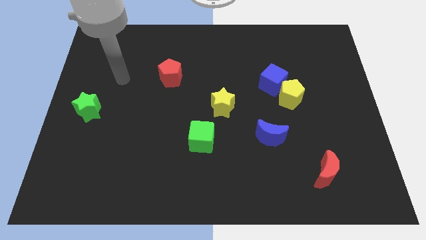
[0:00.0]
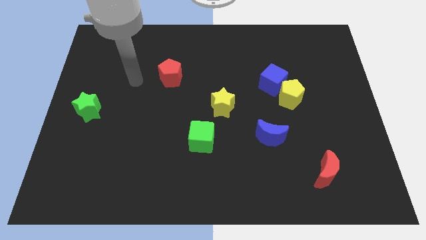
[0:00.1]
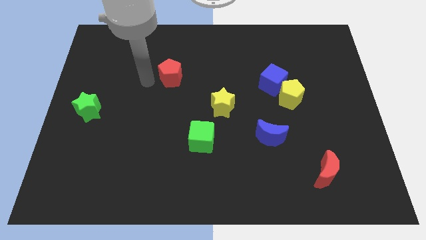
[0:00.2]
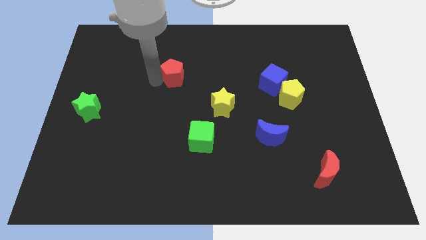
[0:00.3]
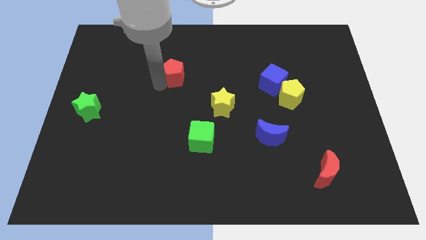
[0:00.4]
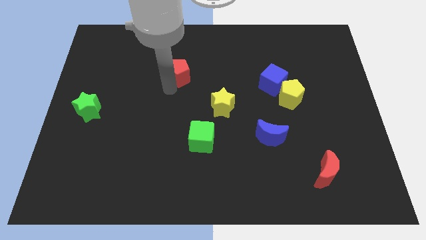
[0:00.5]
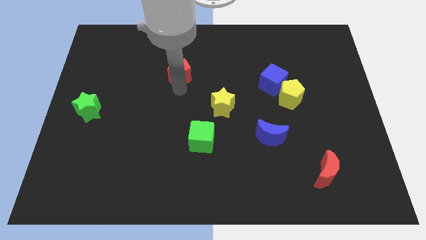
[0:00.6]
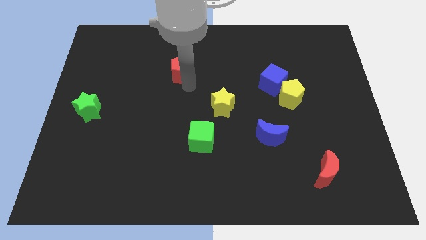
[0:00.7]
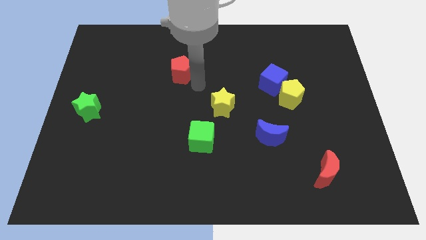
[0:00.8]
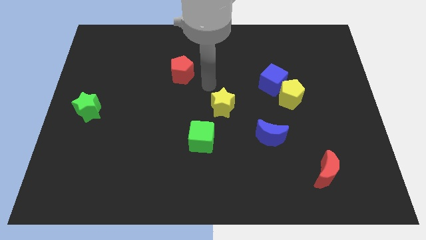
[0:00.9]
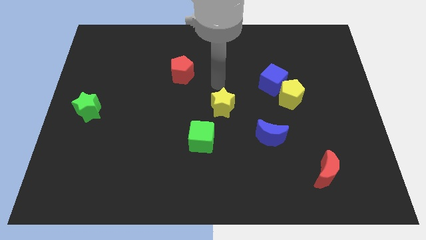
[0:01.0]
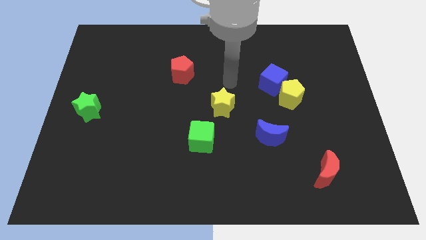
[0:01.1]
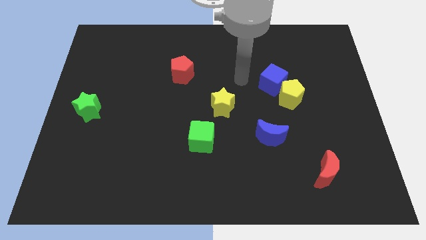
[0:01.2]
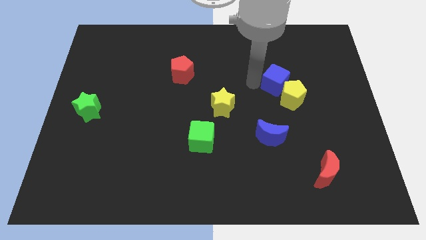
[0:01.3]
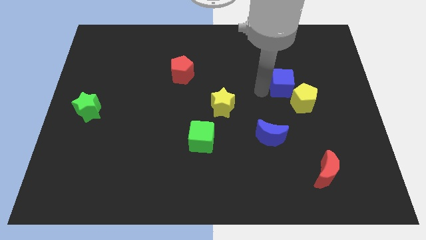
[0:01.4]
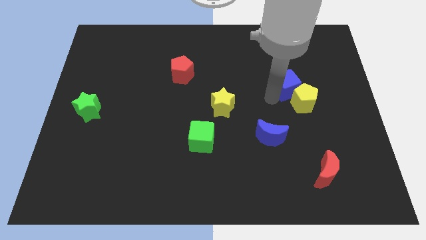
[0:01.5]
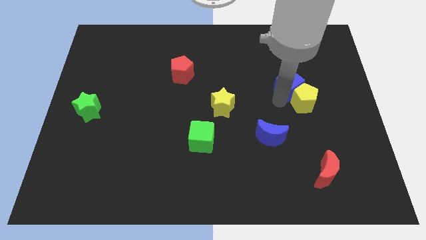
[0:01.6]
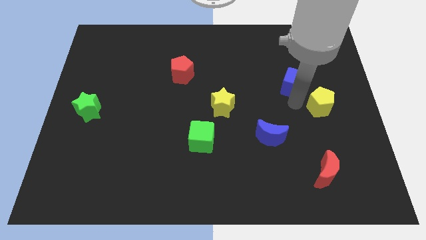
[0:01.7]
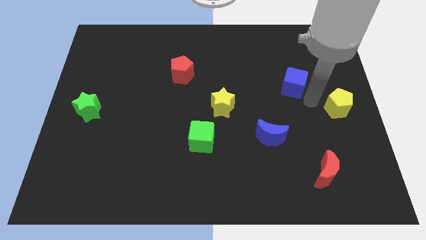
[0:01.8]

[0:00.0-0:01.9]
move the blue cube away from the yellow pentagon

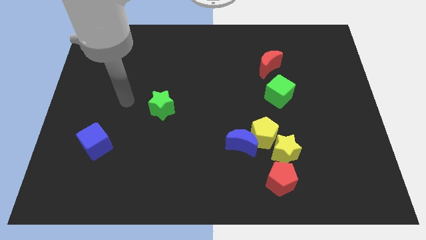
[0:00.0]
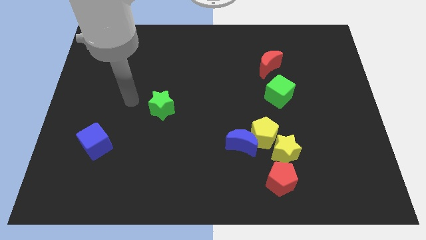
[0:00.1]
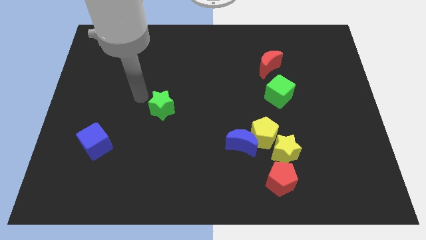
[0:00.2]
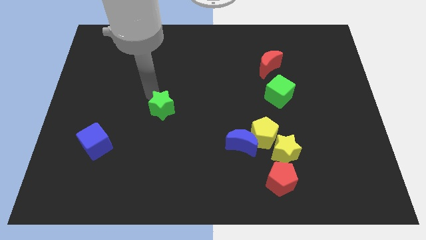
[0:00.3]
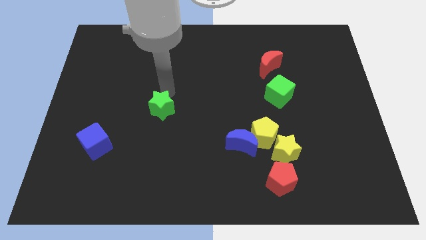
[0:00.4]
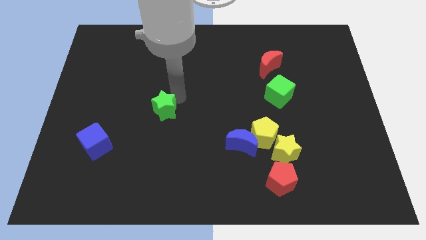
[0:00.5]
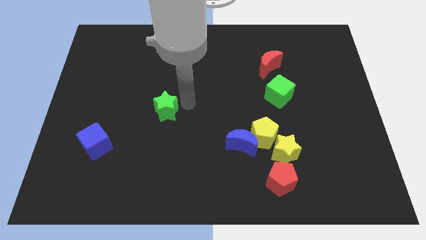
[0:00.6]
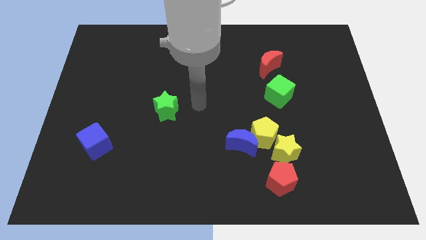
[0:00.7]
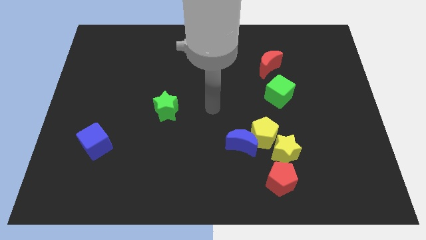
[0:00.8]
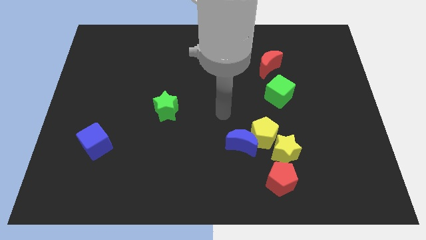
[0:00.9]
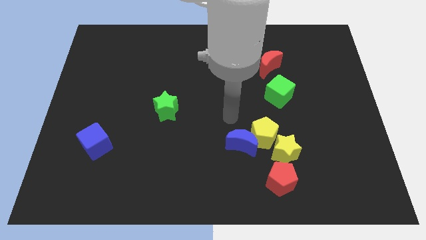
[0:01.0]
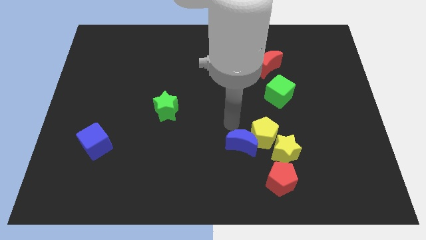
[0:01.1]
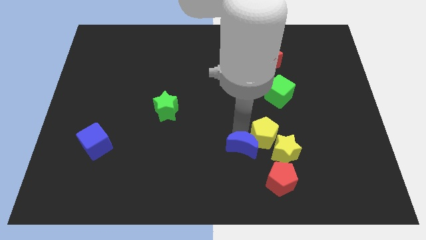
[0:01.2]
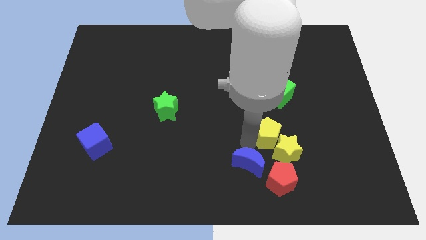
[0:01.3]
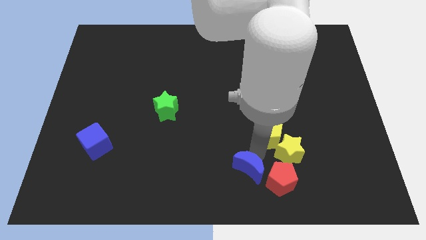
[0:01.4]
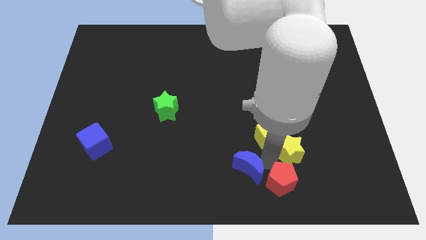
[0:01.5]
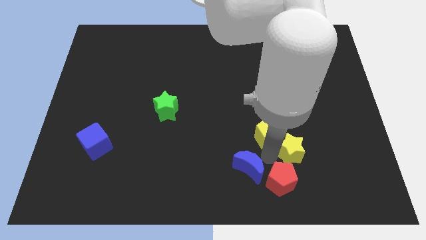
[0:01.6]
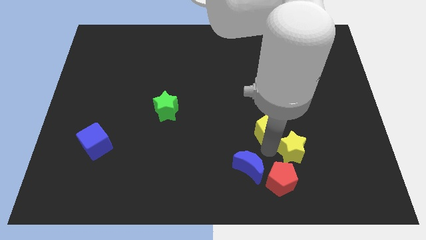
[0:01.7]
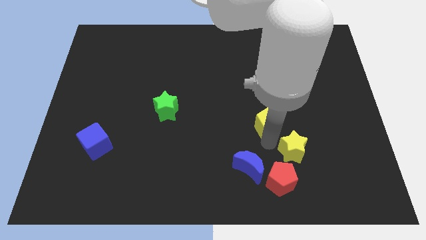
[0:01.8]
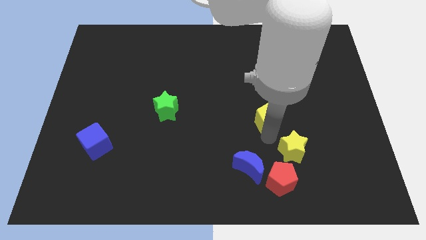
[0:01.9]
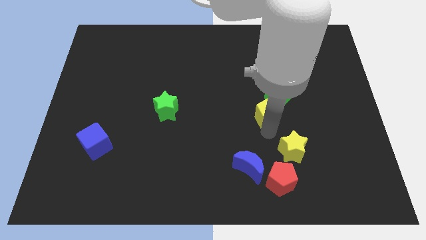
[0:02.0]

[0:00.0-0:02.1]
pull the yellow pentagon apart from the blue moon and yellow star

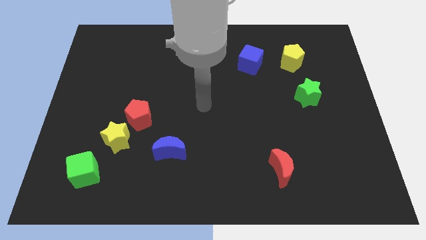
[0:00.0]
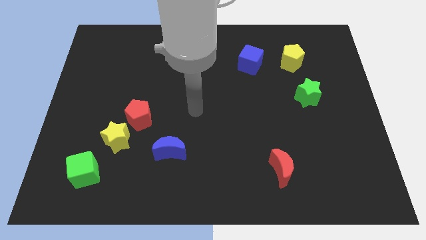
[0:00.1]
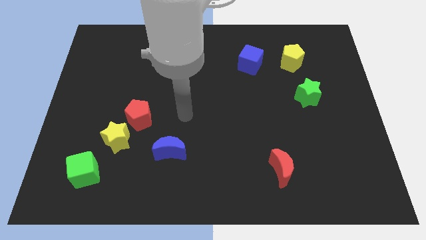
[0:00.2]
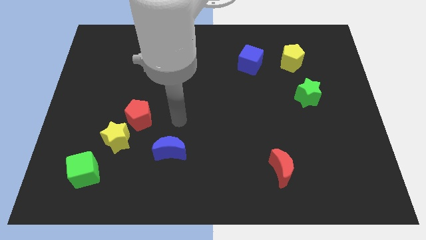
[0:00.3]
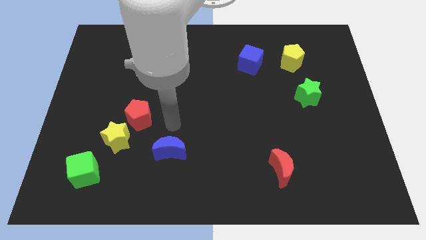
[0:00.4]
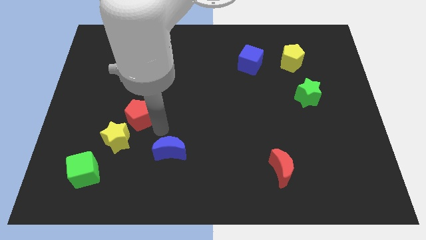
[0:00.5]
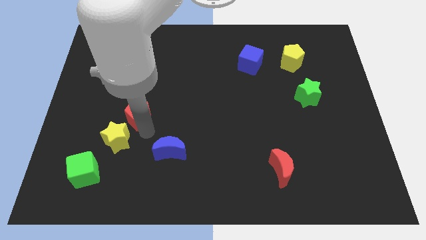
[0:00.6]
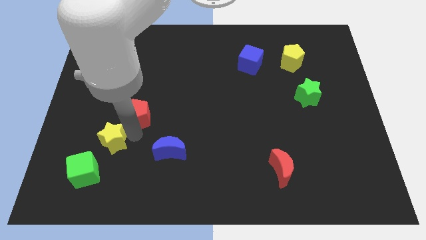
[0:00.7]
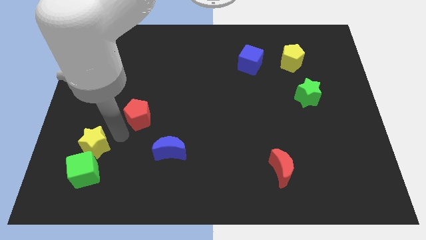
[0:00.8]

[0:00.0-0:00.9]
move the red pentagon away from the yellow star

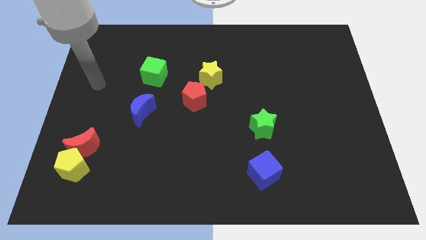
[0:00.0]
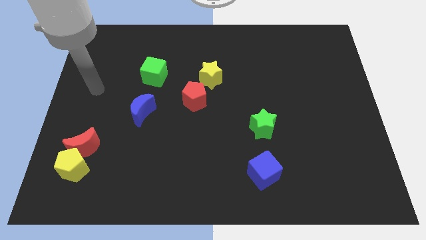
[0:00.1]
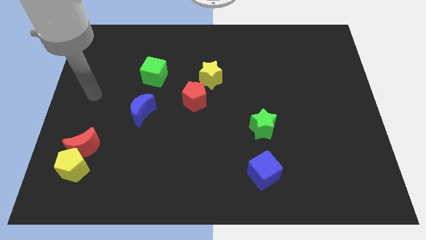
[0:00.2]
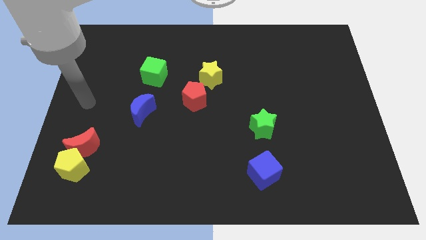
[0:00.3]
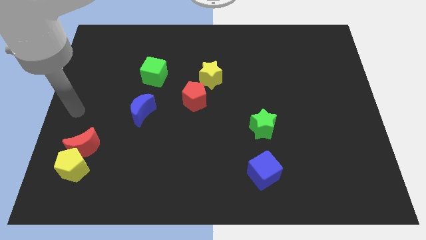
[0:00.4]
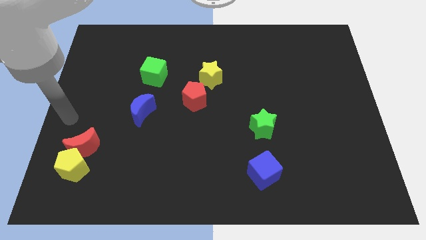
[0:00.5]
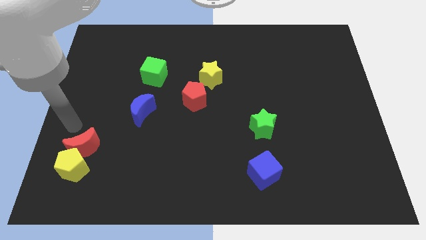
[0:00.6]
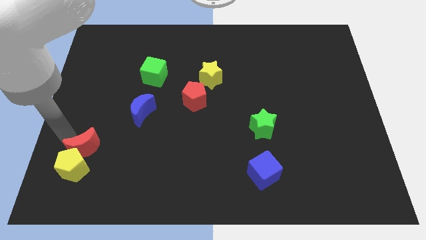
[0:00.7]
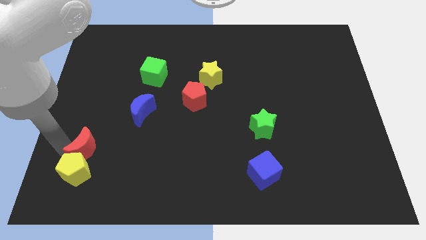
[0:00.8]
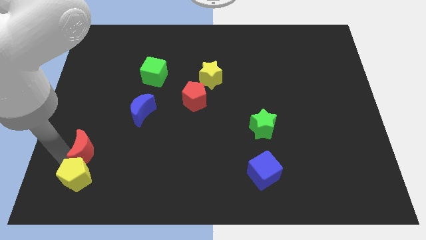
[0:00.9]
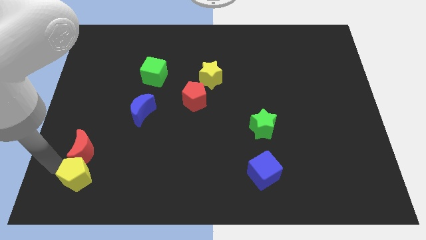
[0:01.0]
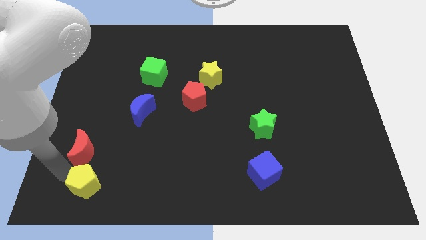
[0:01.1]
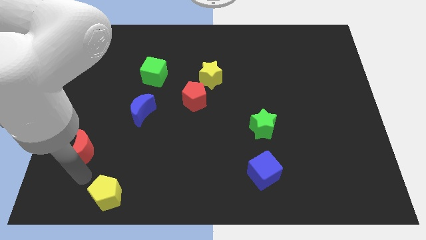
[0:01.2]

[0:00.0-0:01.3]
move the red moon away from the yellow pentagon

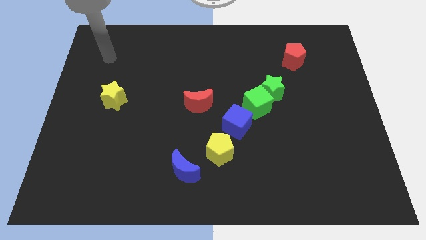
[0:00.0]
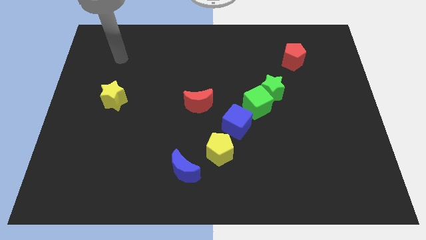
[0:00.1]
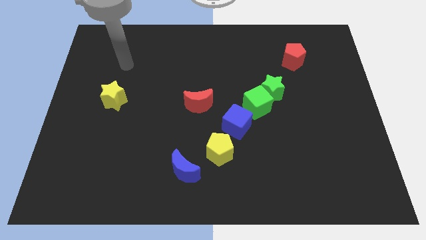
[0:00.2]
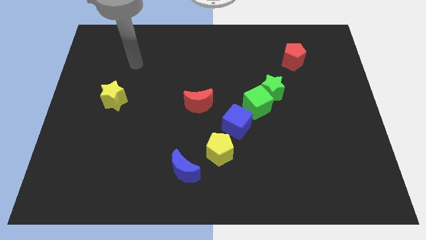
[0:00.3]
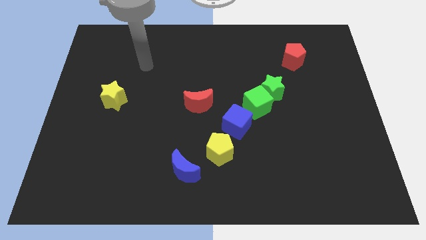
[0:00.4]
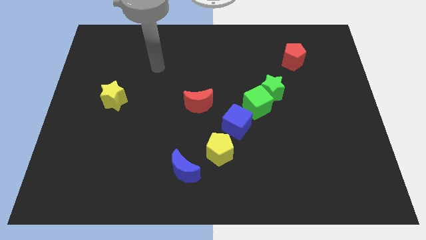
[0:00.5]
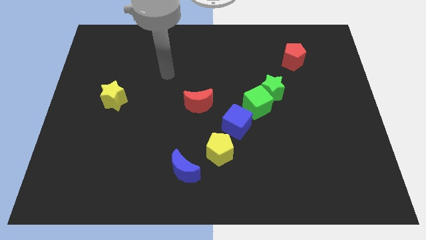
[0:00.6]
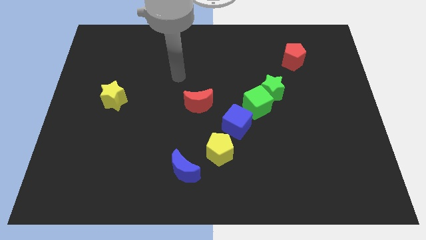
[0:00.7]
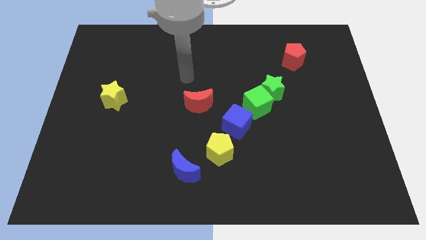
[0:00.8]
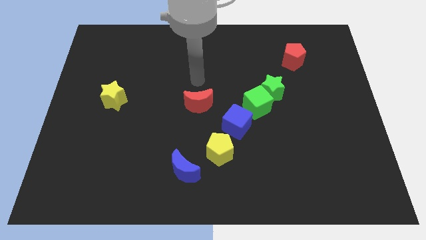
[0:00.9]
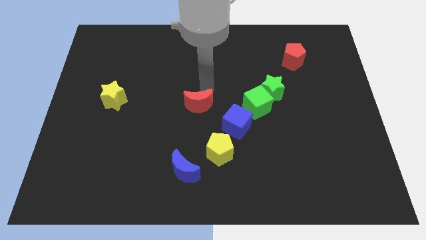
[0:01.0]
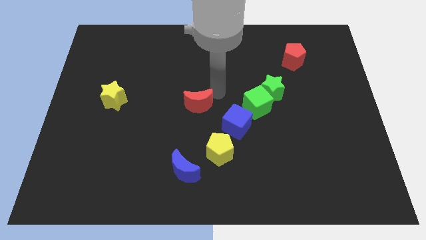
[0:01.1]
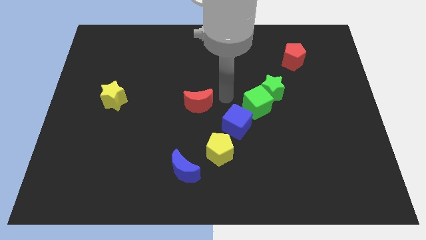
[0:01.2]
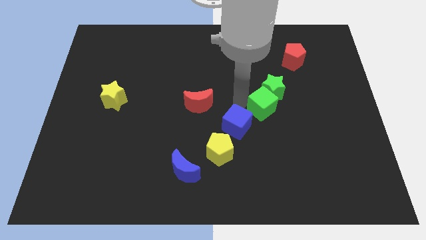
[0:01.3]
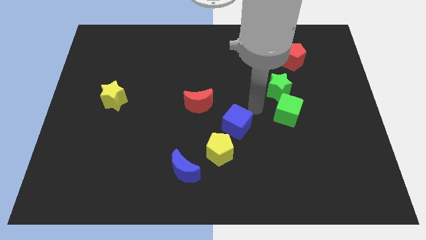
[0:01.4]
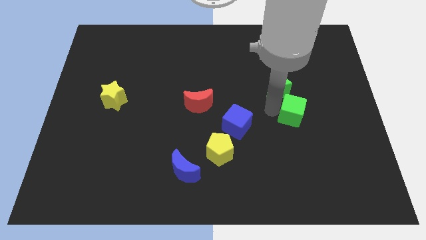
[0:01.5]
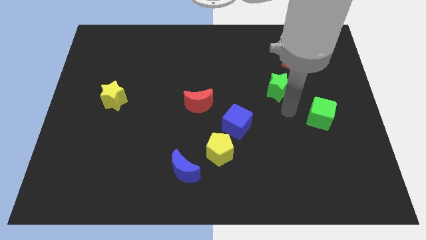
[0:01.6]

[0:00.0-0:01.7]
move the green star away from the green cube

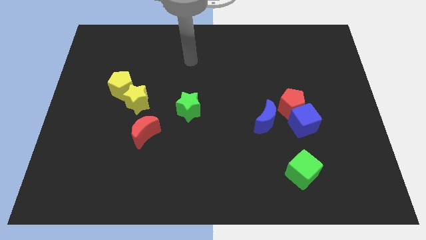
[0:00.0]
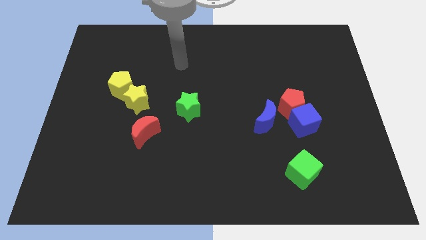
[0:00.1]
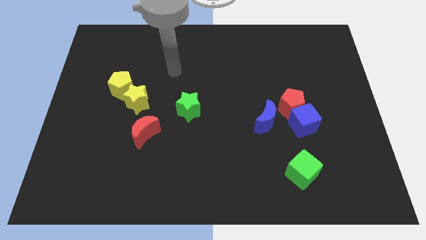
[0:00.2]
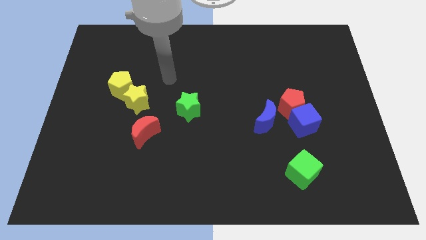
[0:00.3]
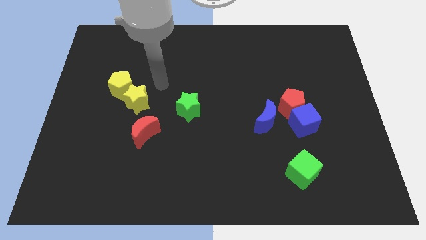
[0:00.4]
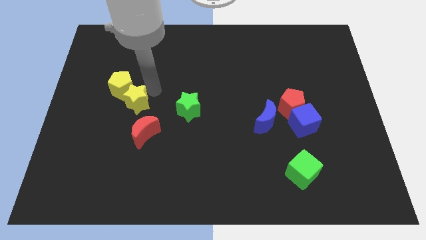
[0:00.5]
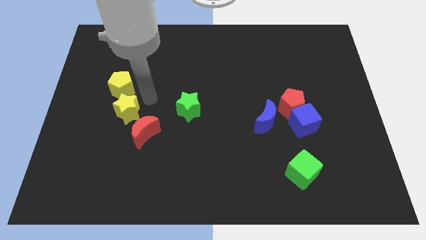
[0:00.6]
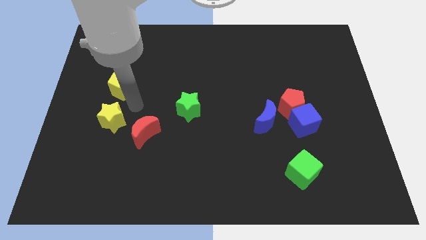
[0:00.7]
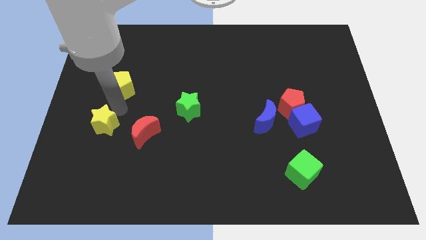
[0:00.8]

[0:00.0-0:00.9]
move the yellow pentagon away from the yellow star

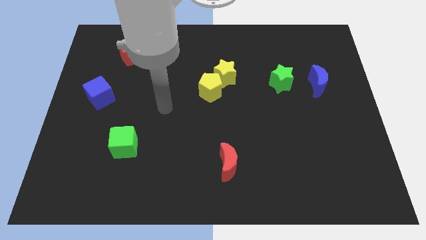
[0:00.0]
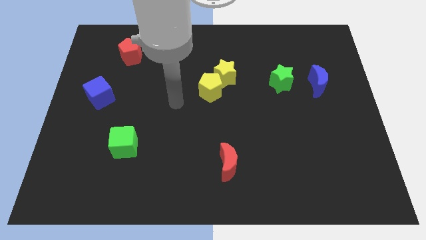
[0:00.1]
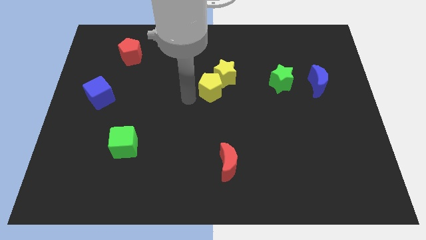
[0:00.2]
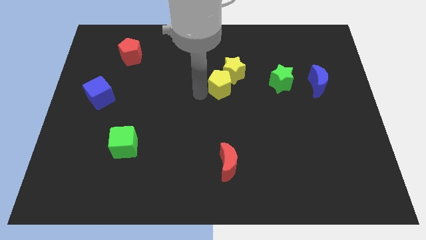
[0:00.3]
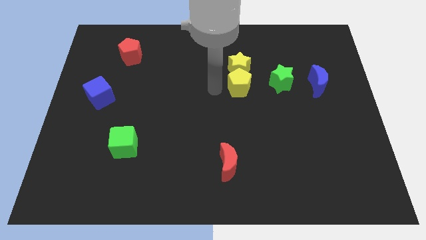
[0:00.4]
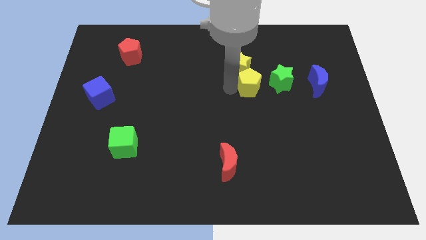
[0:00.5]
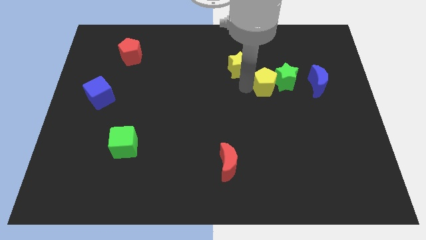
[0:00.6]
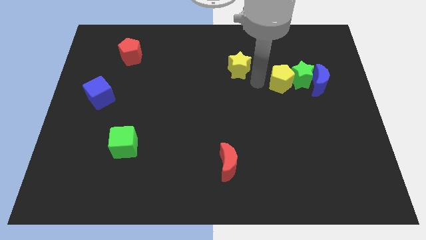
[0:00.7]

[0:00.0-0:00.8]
pull the yellow star apart from the yellow pentagon
